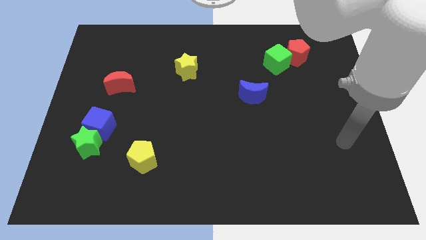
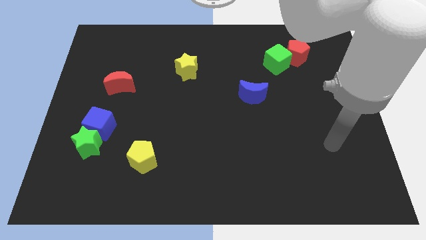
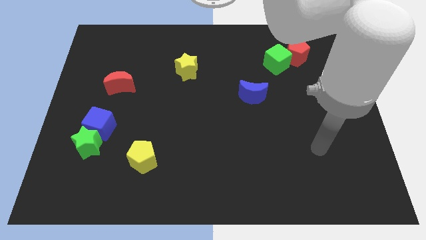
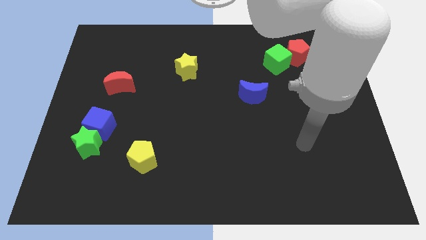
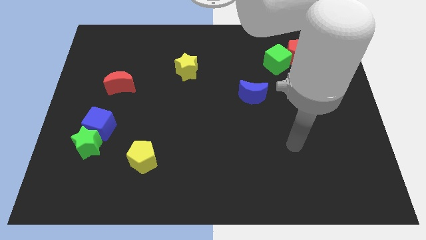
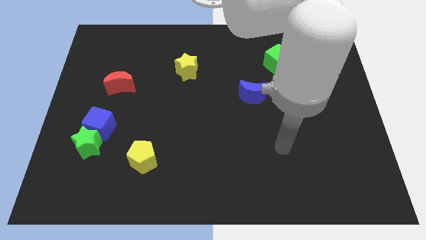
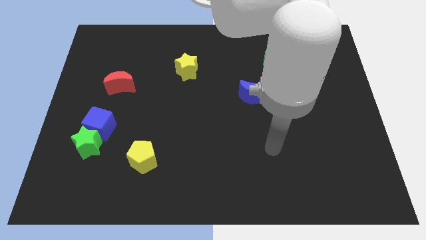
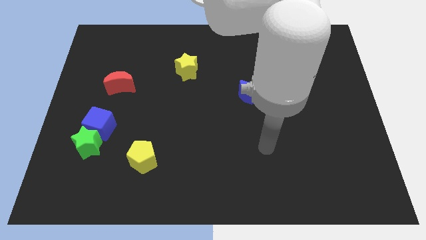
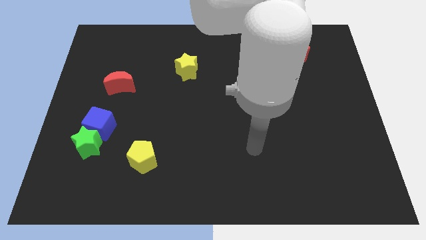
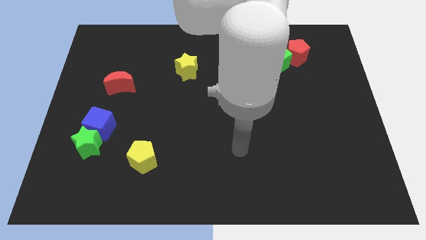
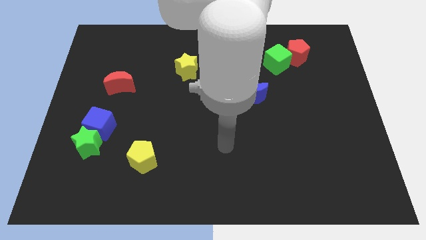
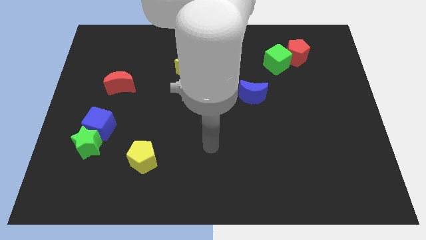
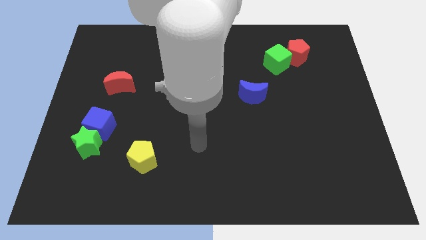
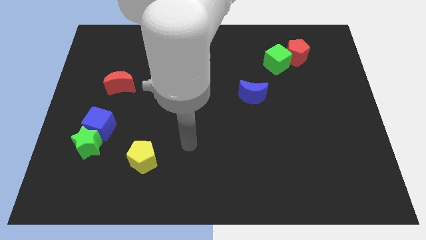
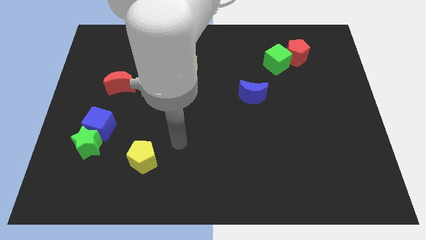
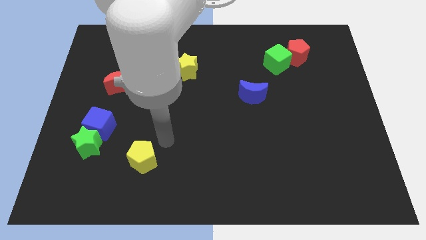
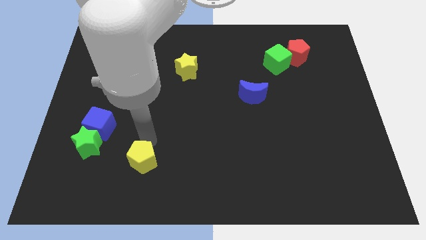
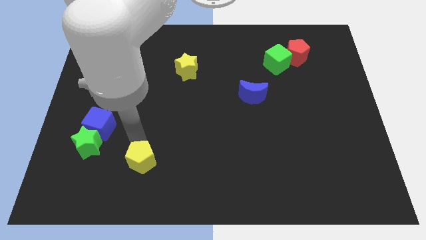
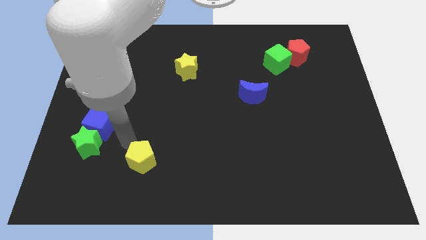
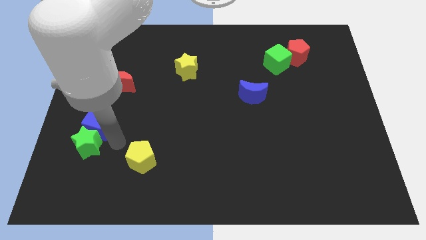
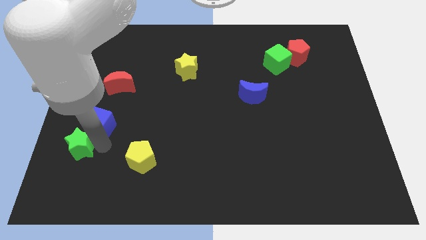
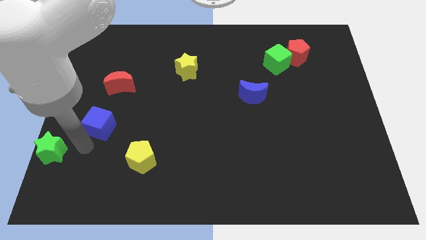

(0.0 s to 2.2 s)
move the blue cube away from the green star

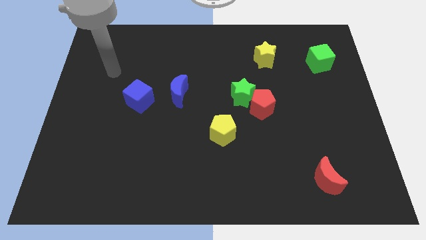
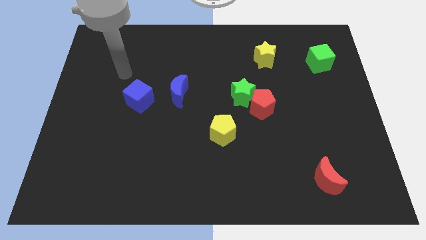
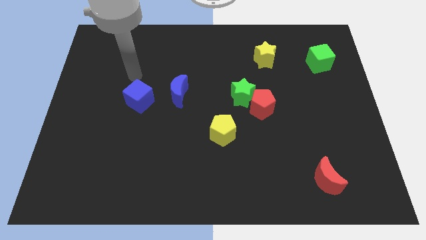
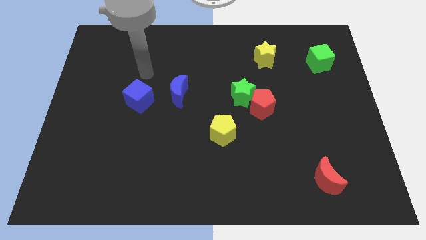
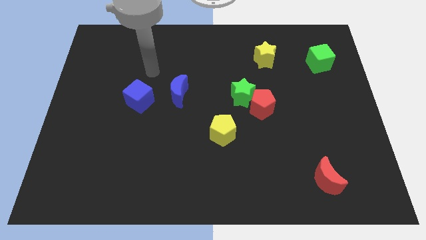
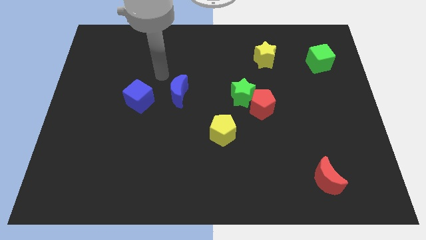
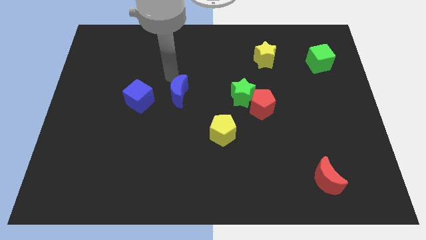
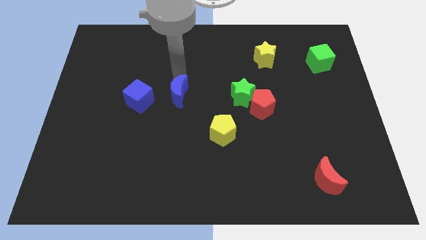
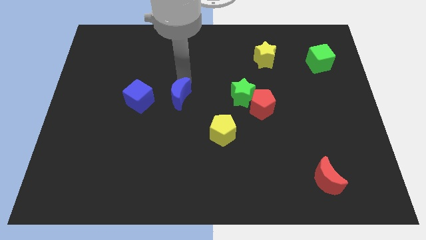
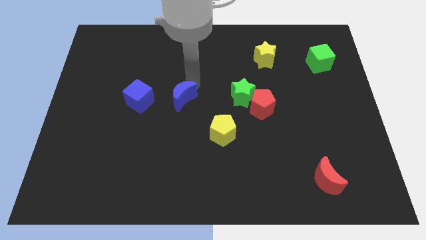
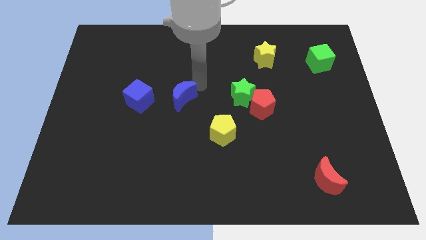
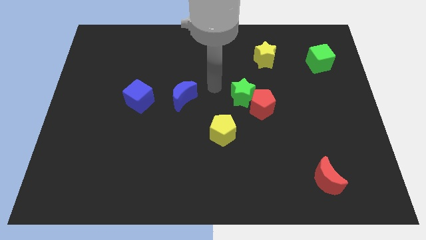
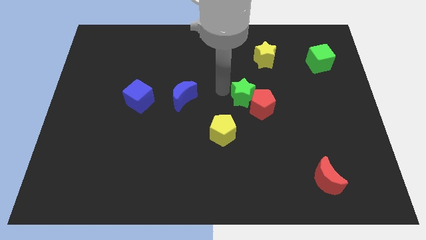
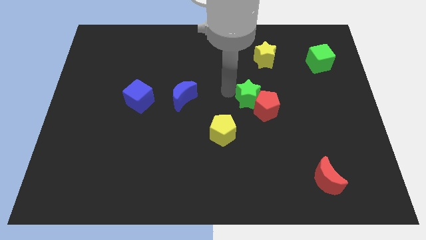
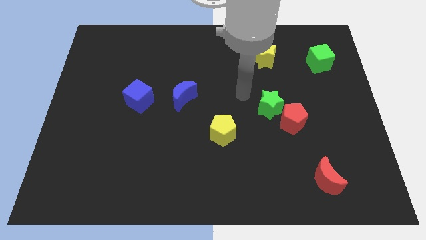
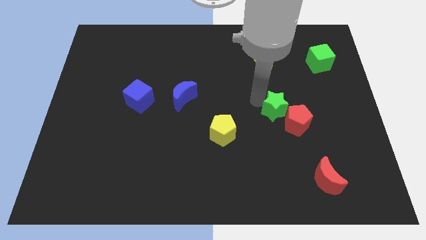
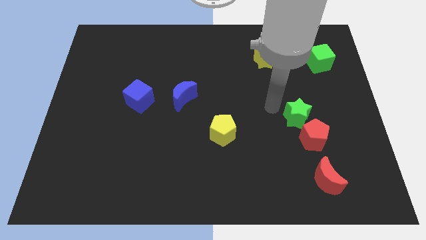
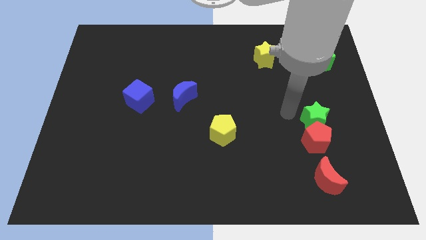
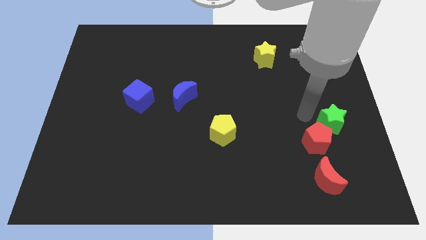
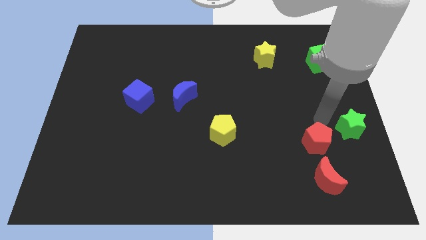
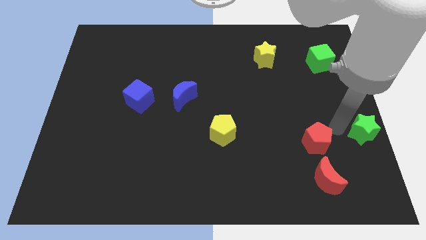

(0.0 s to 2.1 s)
move the red pentagon away from the green star

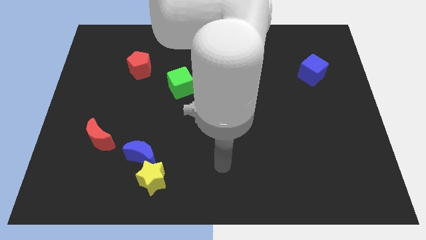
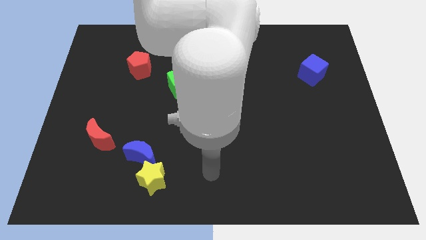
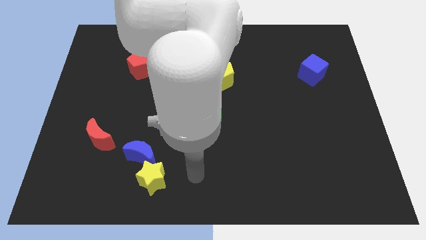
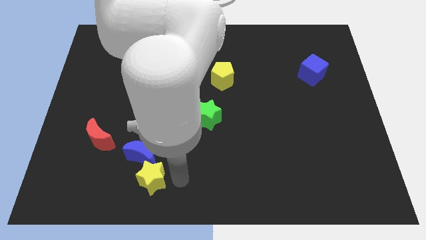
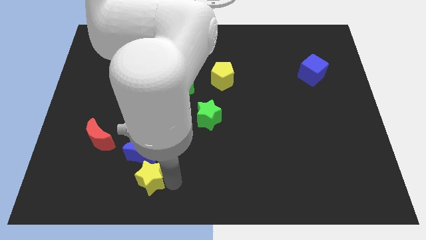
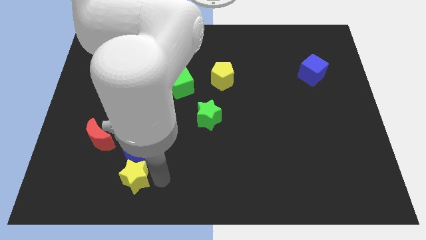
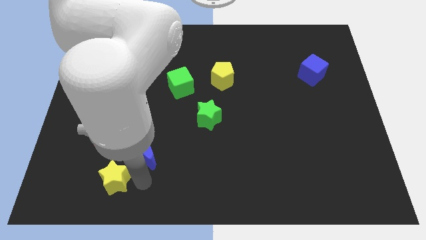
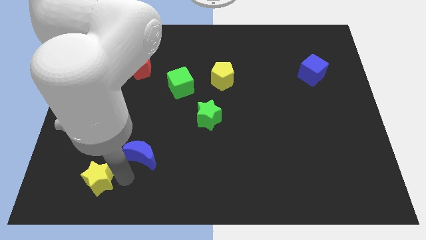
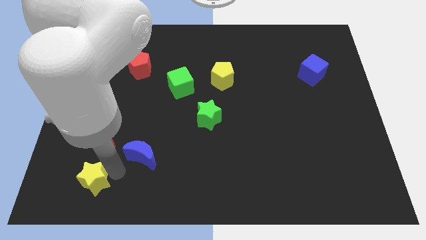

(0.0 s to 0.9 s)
pull the blue moon apart from the yellow star

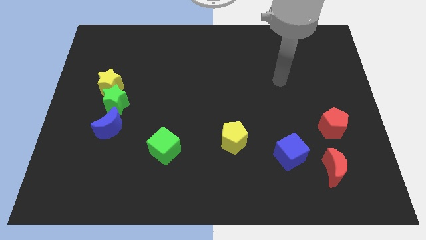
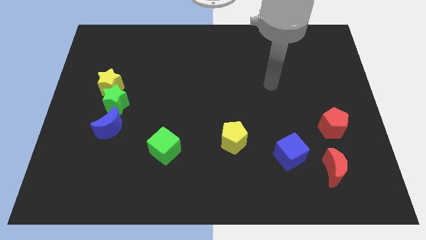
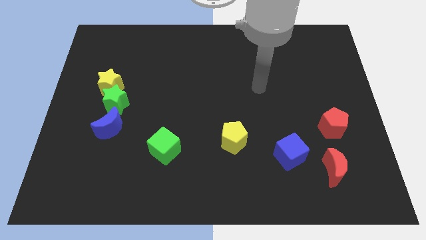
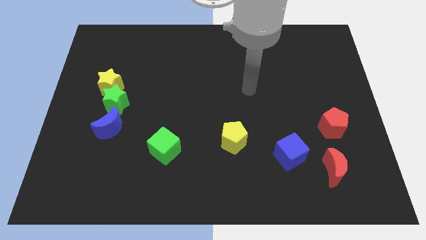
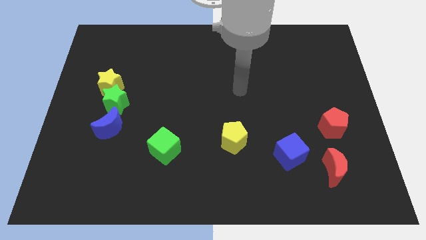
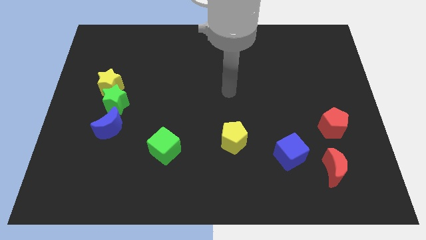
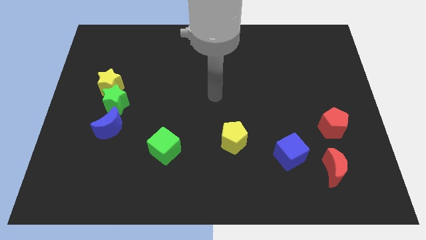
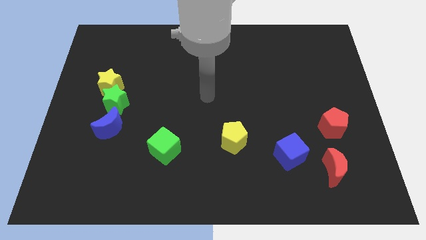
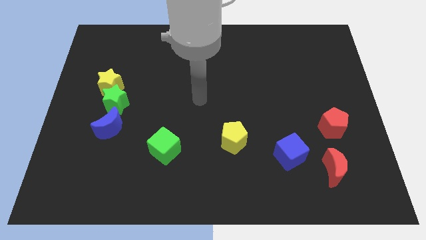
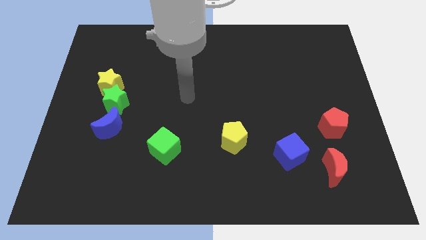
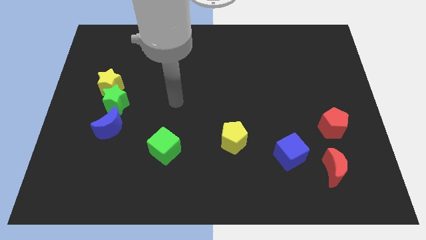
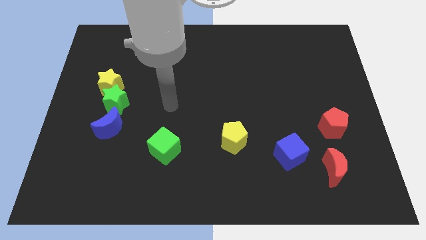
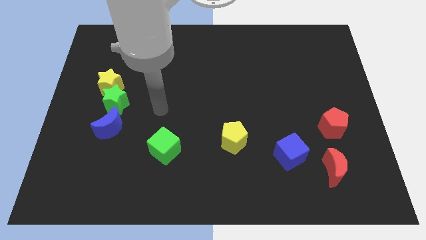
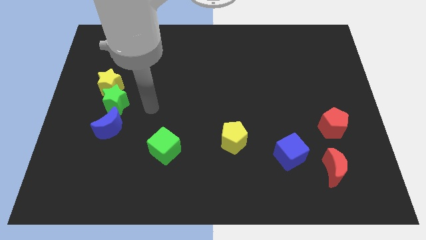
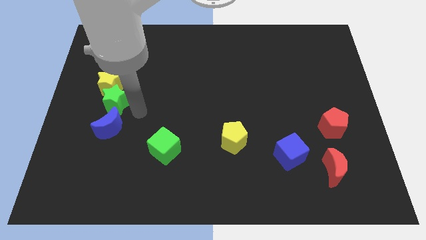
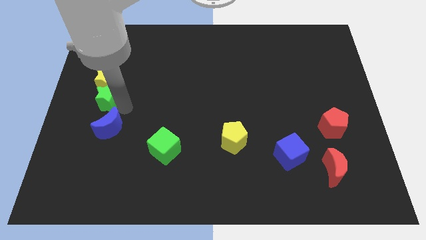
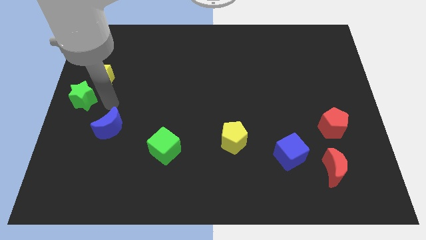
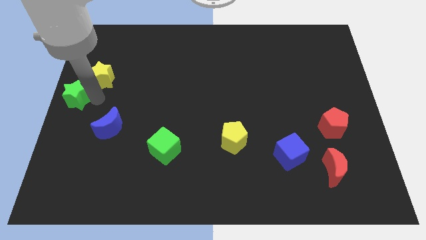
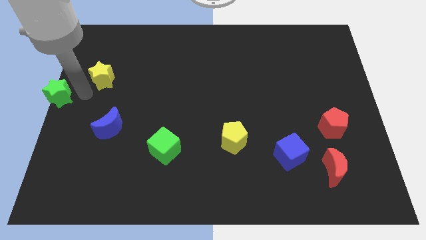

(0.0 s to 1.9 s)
pull the yellow star apart from the green star

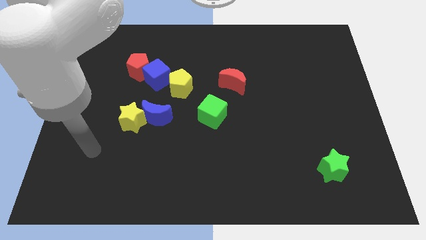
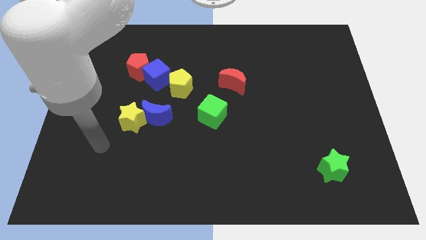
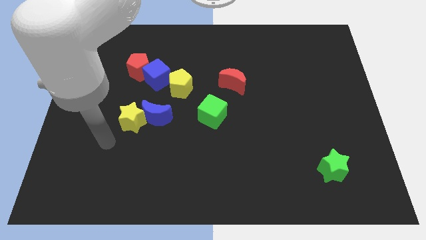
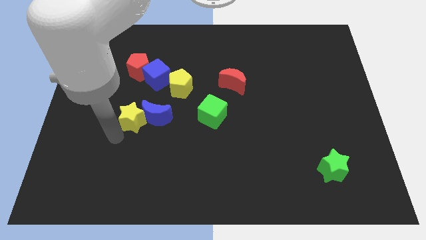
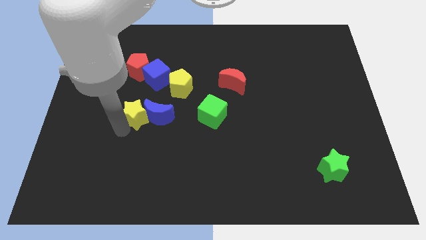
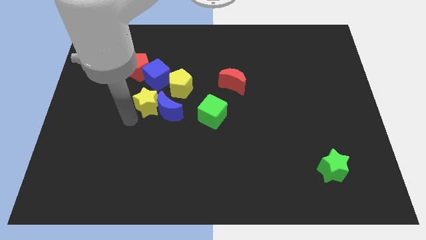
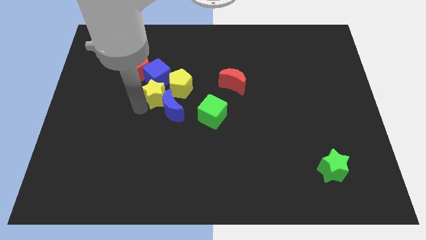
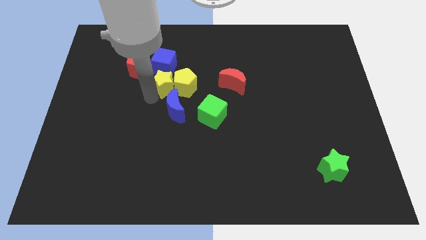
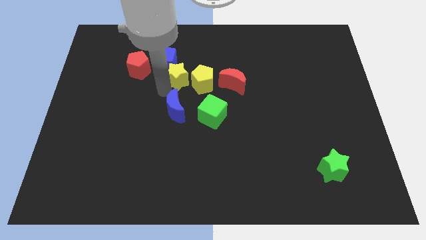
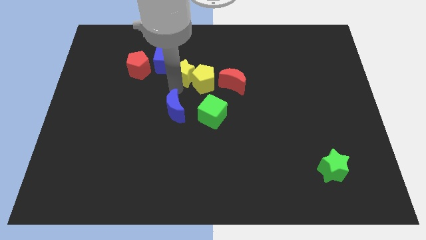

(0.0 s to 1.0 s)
move the blue moon away from the yellow star

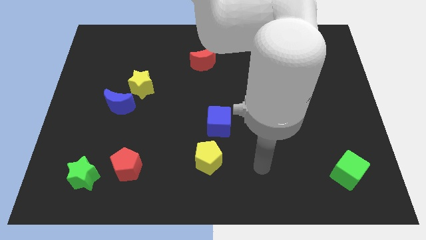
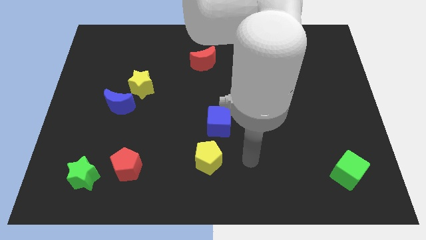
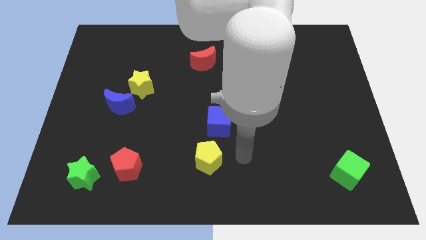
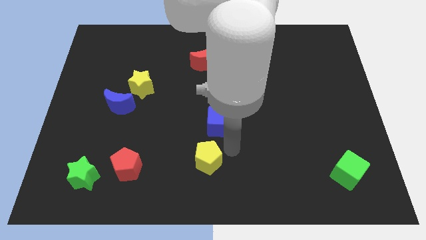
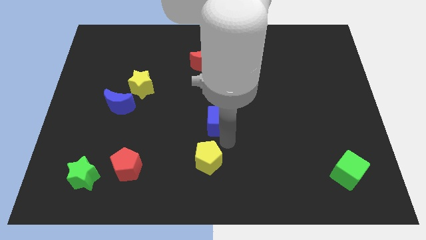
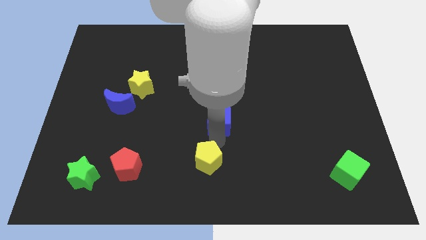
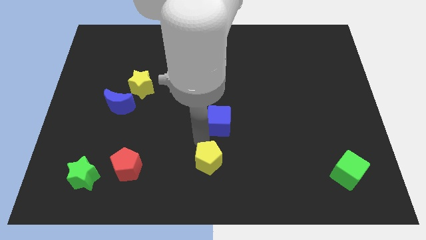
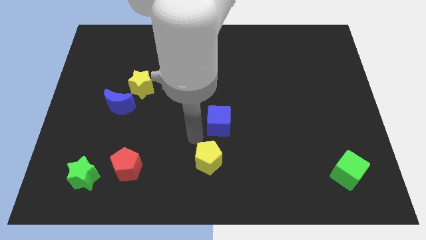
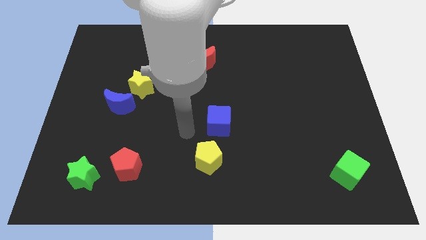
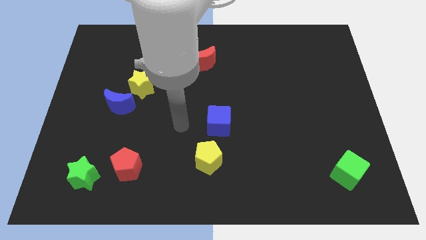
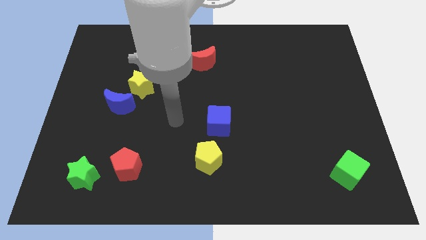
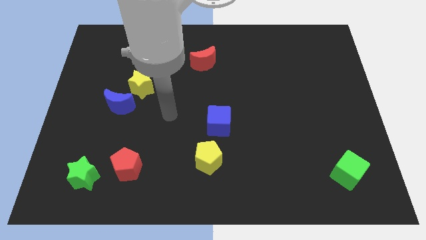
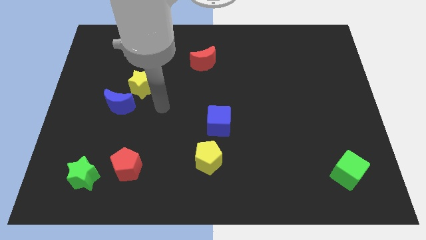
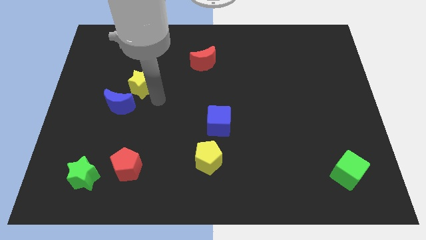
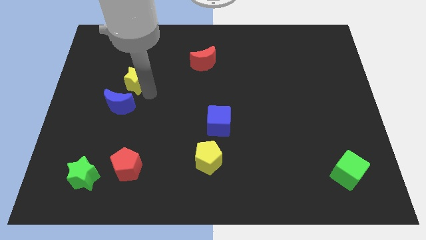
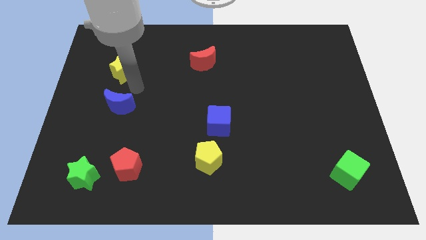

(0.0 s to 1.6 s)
separate the blue moon from the yellow star
